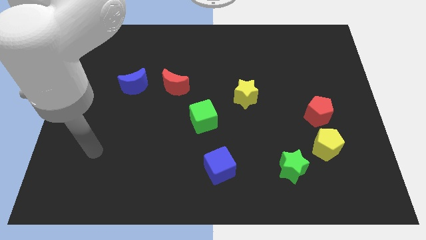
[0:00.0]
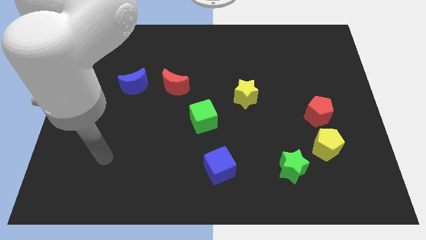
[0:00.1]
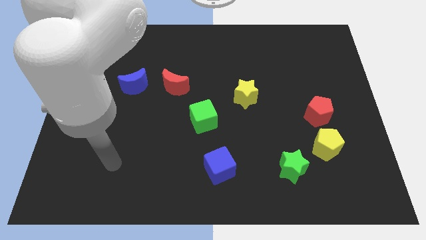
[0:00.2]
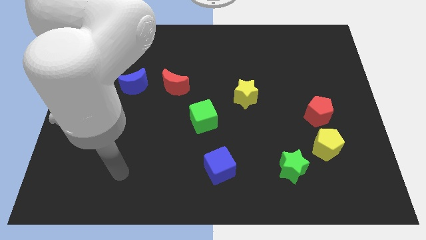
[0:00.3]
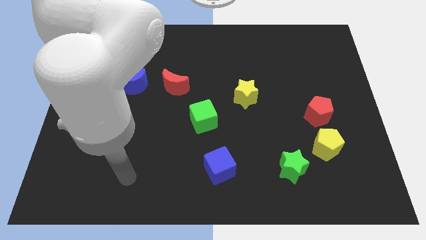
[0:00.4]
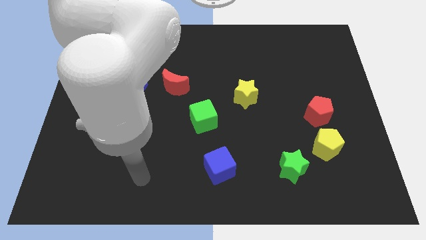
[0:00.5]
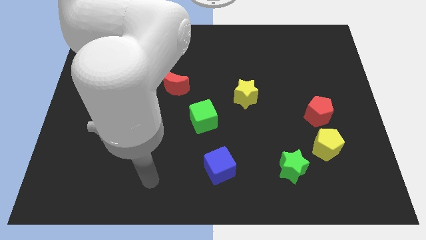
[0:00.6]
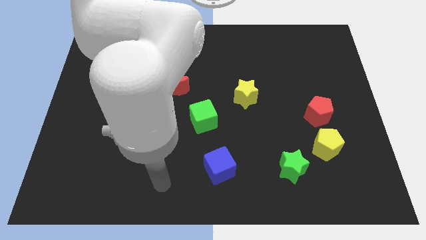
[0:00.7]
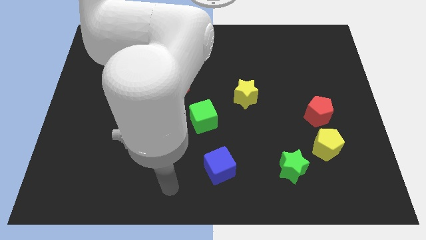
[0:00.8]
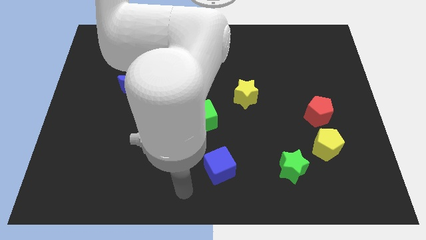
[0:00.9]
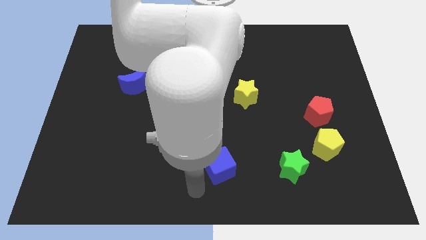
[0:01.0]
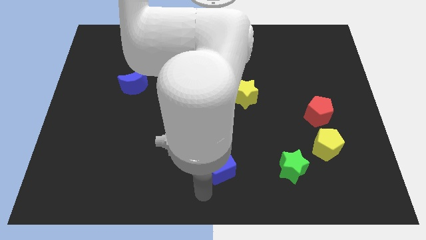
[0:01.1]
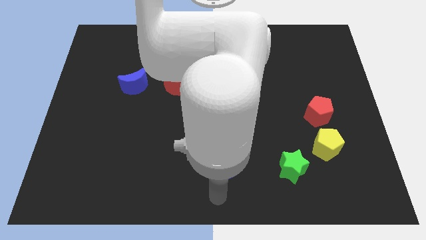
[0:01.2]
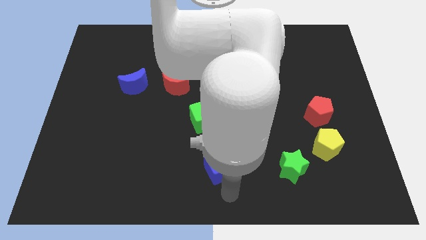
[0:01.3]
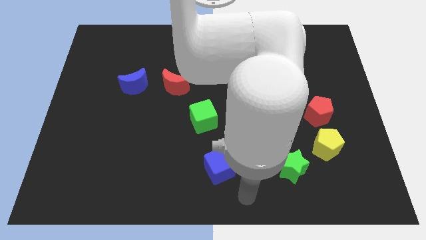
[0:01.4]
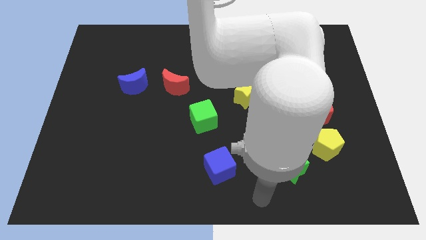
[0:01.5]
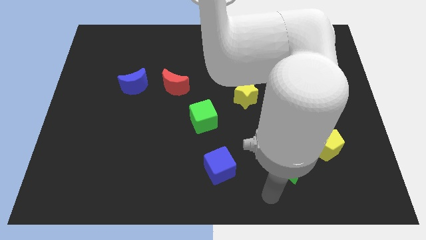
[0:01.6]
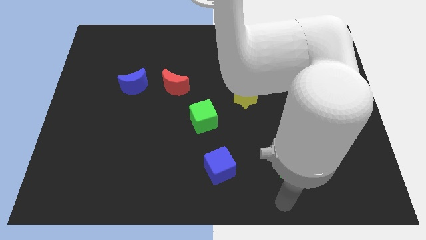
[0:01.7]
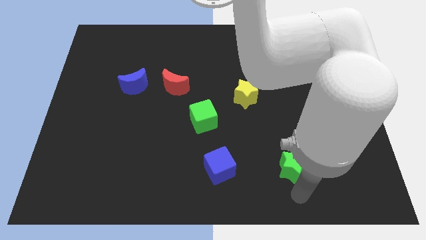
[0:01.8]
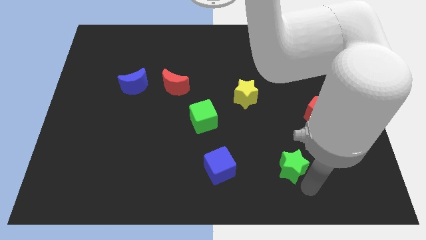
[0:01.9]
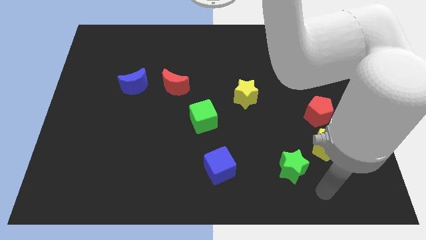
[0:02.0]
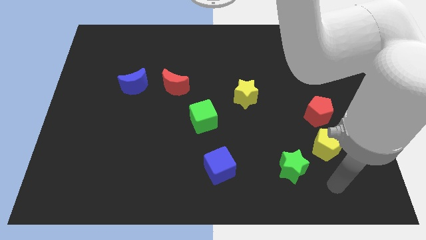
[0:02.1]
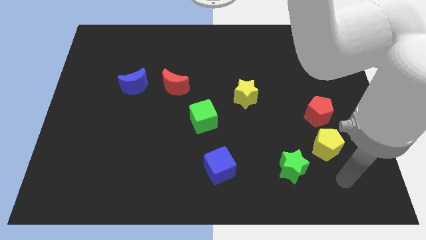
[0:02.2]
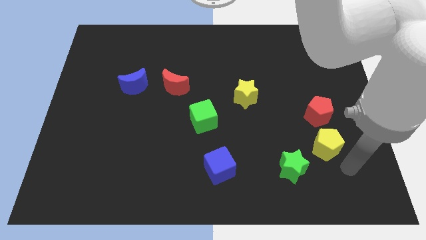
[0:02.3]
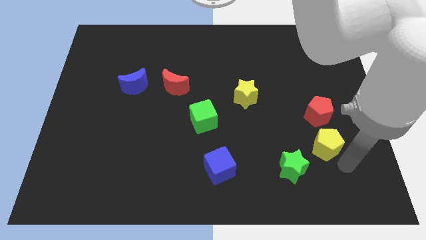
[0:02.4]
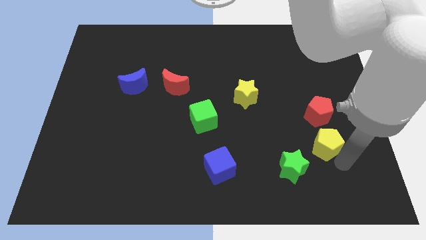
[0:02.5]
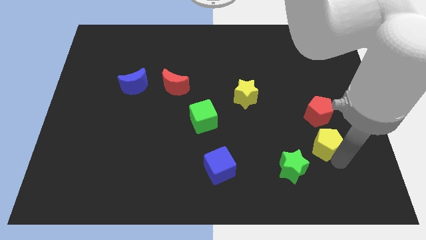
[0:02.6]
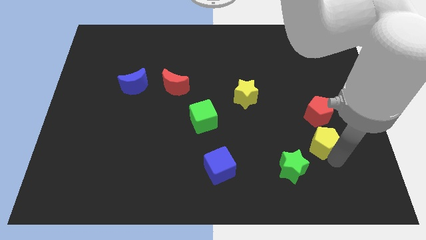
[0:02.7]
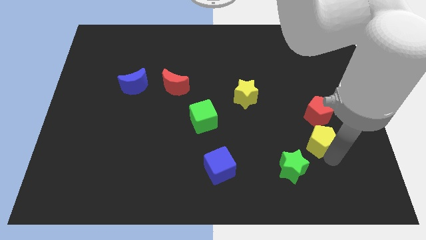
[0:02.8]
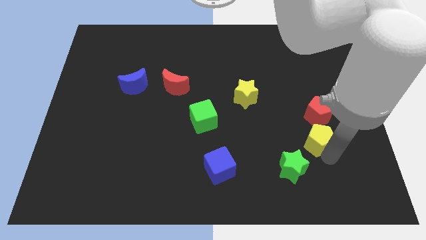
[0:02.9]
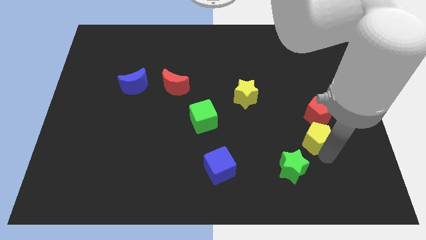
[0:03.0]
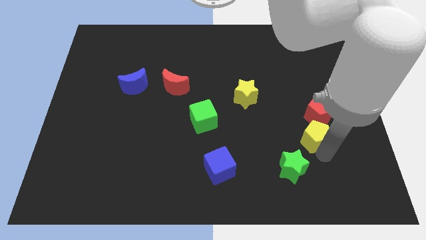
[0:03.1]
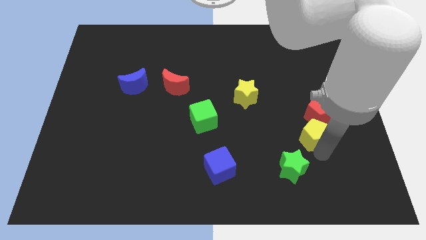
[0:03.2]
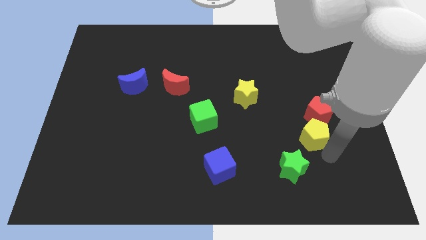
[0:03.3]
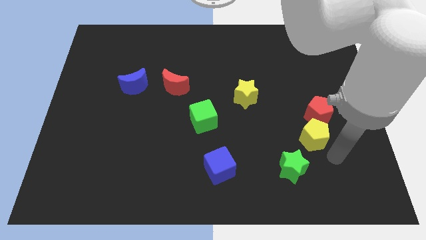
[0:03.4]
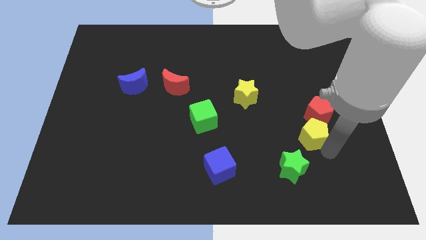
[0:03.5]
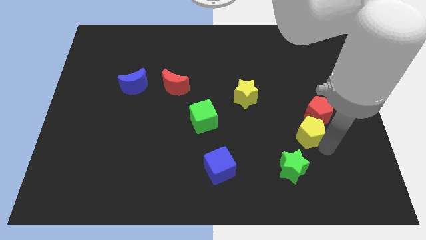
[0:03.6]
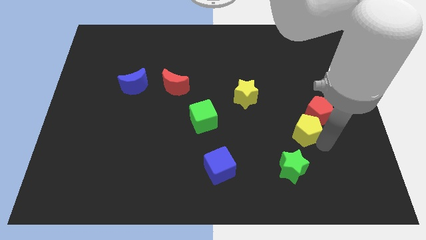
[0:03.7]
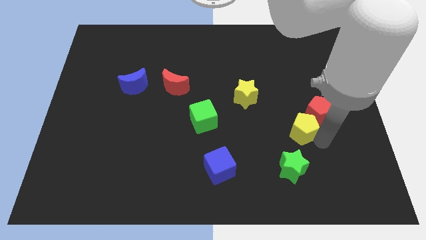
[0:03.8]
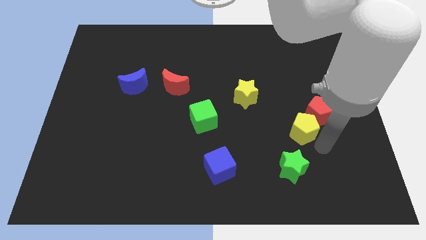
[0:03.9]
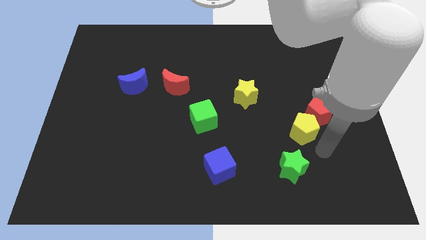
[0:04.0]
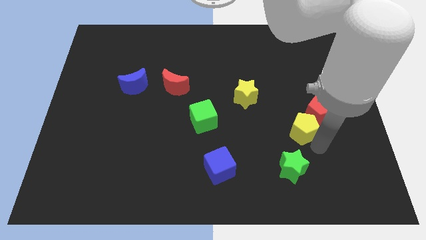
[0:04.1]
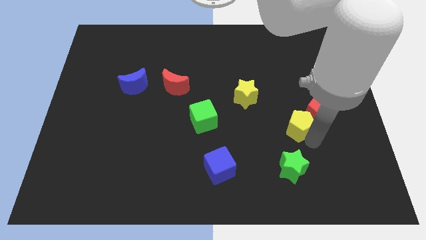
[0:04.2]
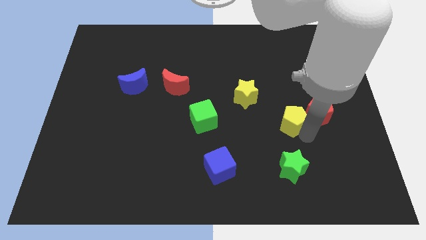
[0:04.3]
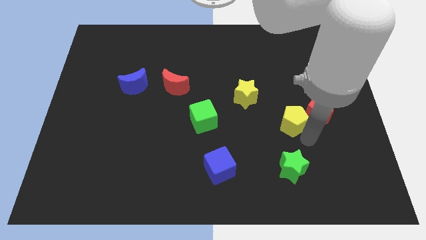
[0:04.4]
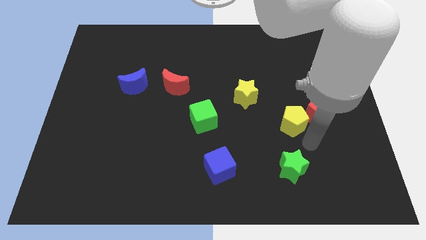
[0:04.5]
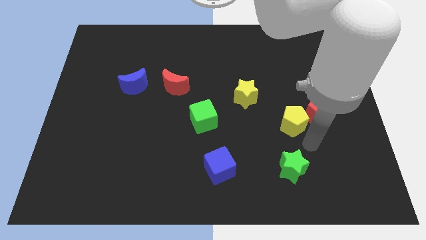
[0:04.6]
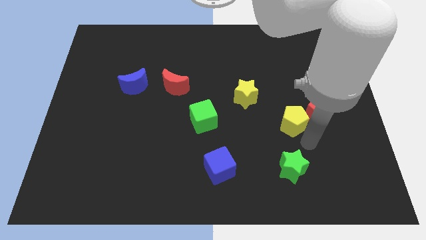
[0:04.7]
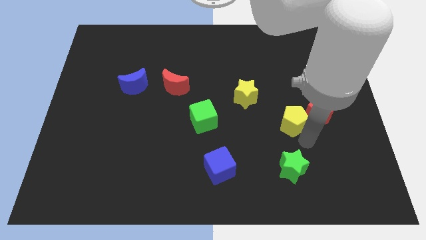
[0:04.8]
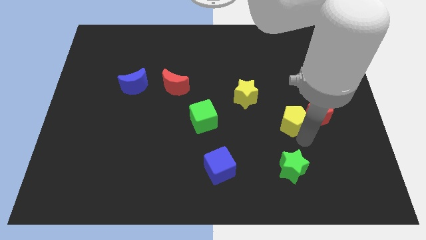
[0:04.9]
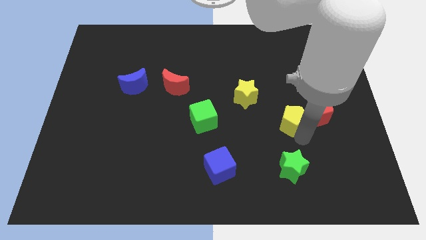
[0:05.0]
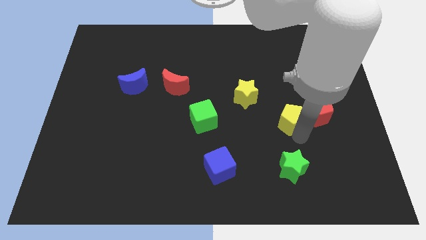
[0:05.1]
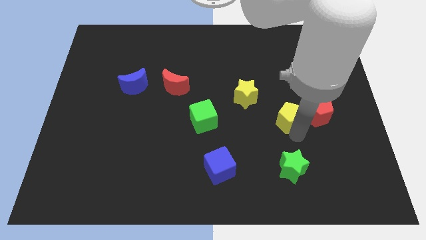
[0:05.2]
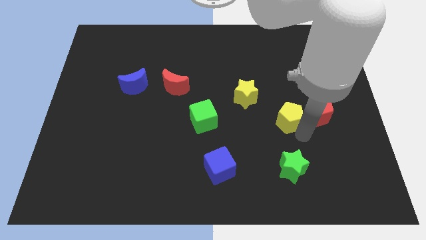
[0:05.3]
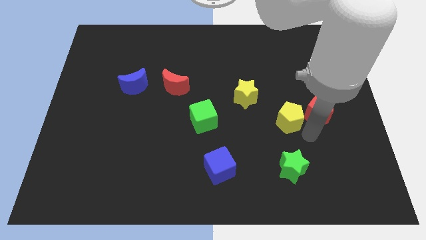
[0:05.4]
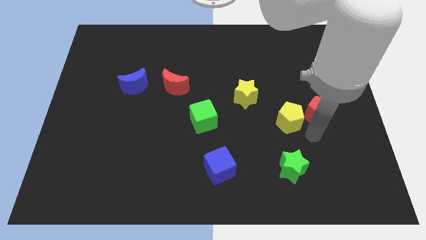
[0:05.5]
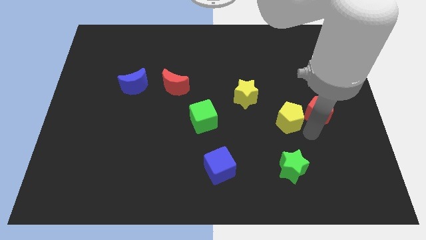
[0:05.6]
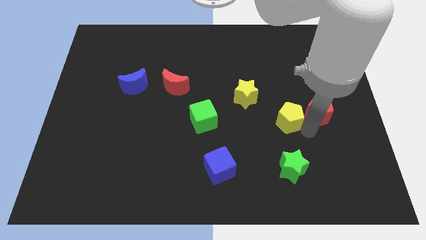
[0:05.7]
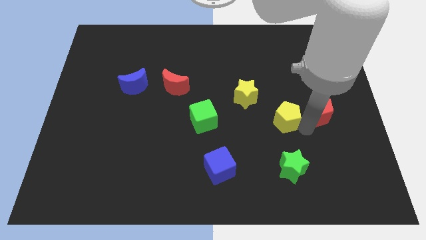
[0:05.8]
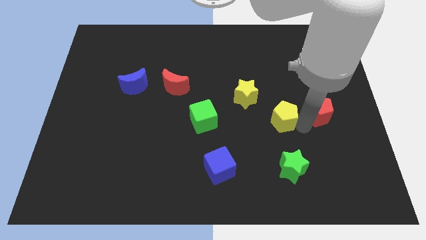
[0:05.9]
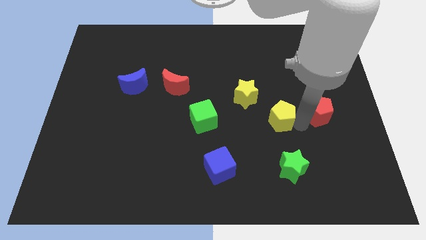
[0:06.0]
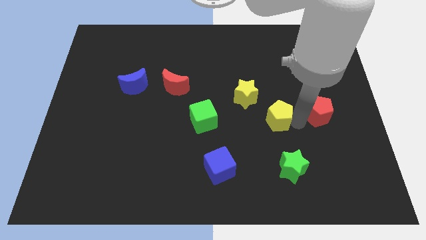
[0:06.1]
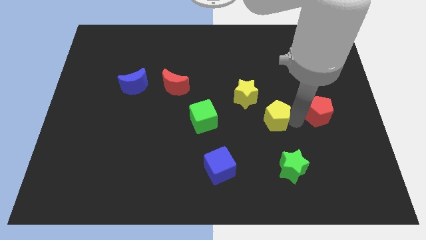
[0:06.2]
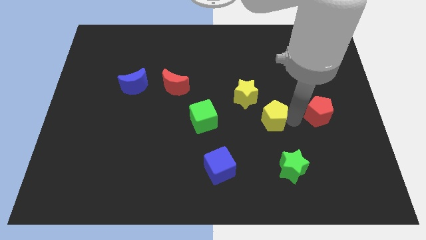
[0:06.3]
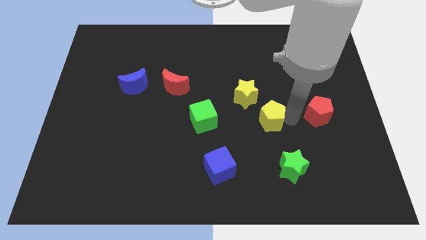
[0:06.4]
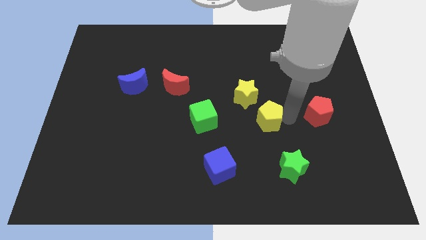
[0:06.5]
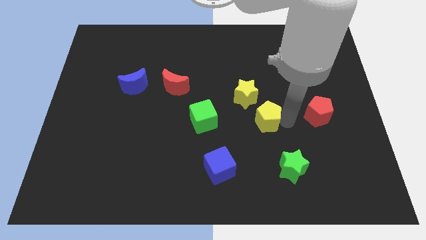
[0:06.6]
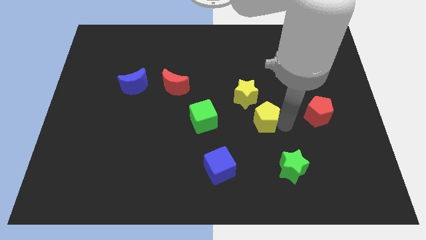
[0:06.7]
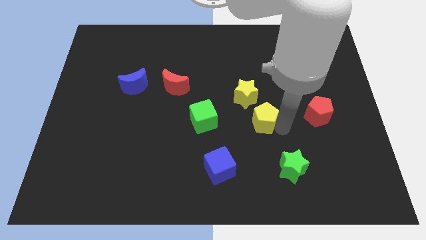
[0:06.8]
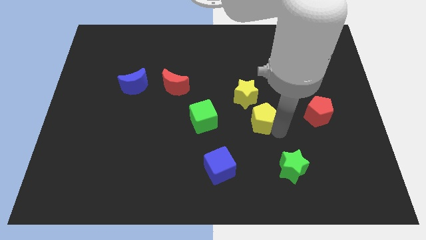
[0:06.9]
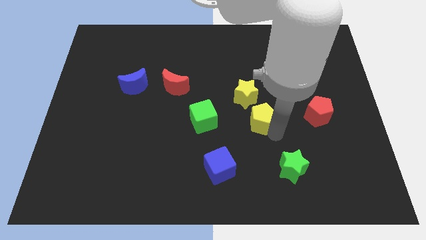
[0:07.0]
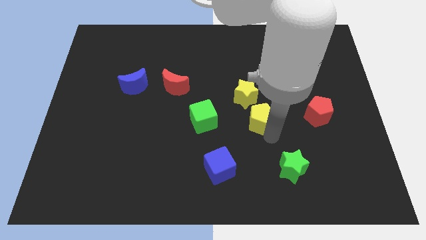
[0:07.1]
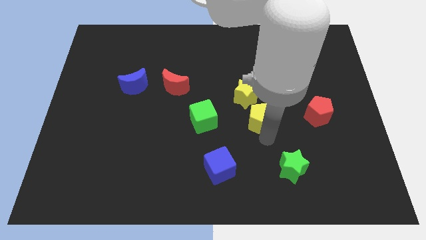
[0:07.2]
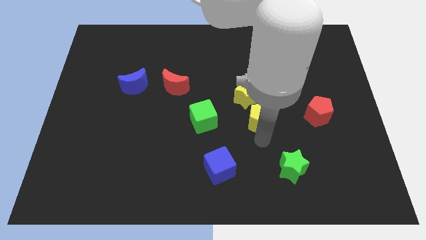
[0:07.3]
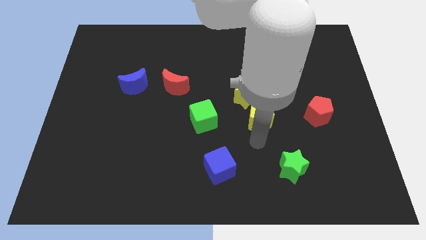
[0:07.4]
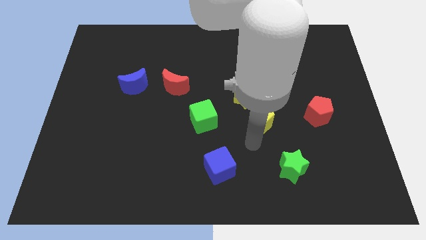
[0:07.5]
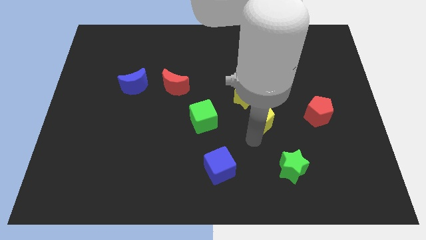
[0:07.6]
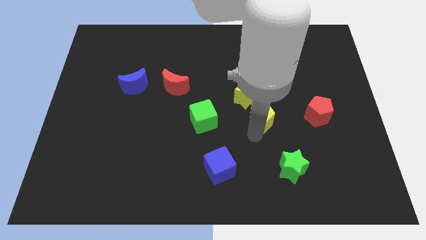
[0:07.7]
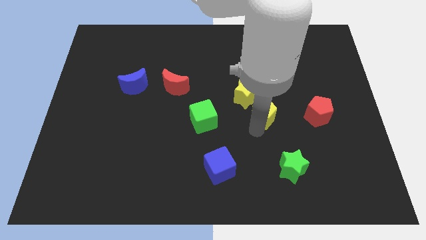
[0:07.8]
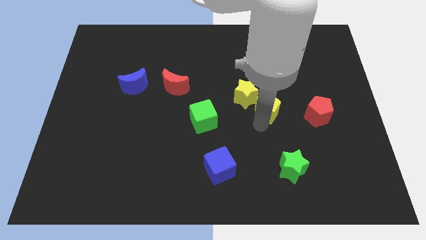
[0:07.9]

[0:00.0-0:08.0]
move the yellow pentagon next to the yellow star
